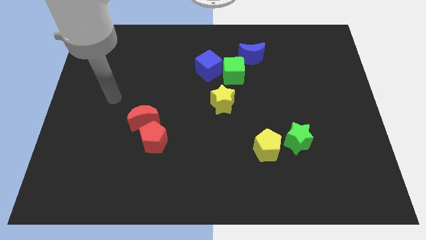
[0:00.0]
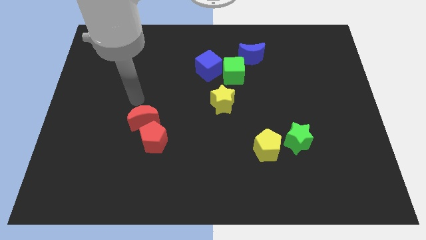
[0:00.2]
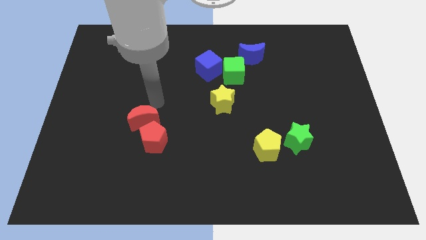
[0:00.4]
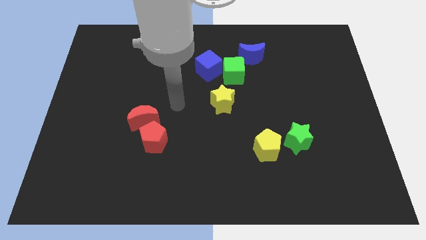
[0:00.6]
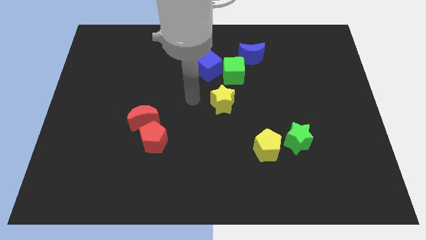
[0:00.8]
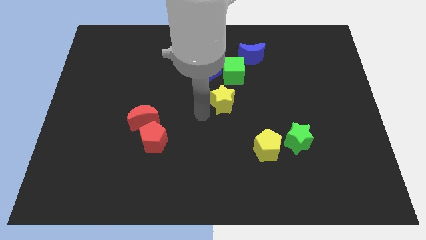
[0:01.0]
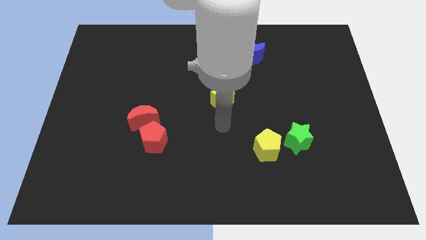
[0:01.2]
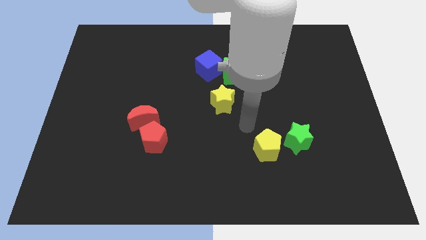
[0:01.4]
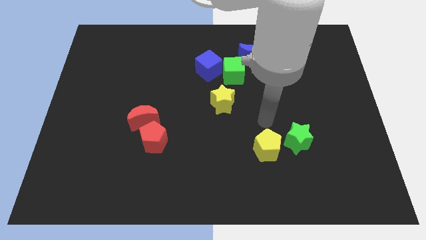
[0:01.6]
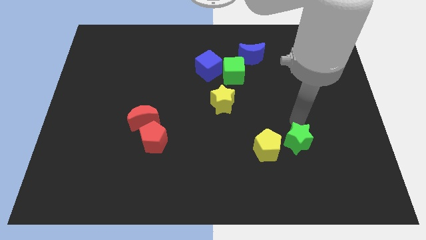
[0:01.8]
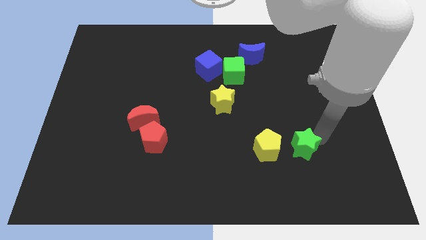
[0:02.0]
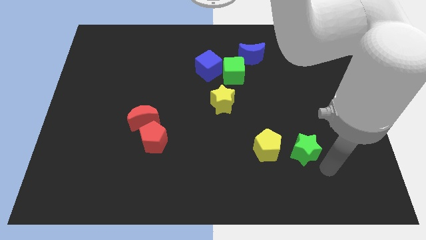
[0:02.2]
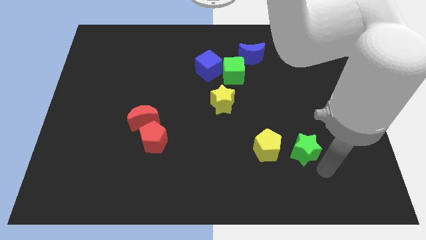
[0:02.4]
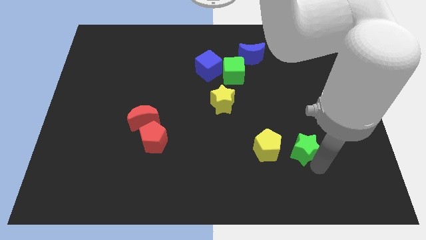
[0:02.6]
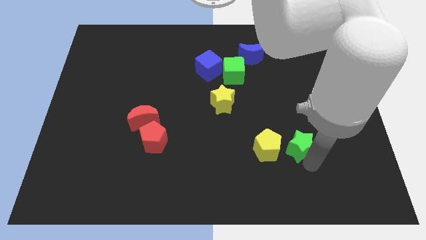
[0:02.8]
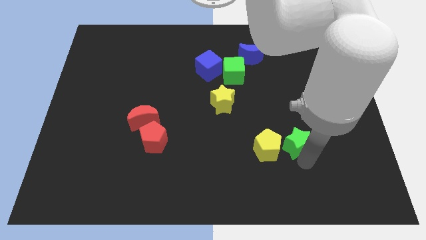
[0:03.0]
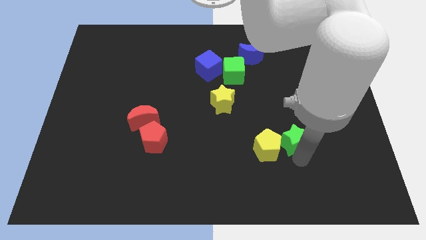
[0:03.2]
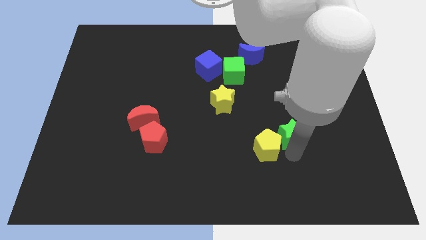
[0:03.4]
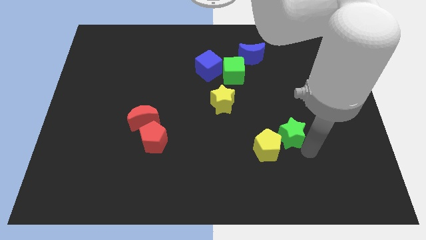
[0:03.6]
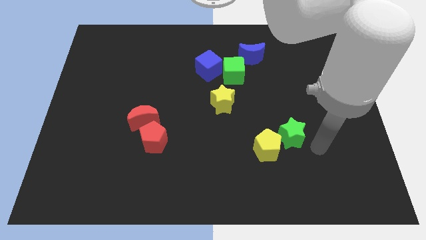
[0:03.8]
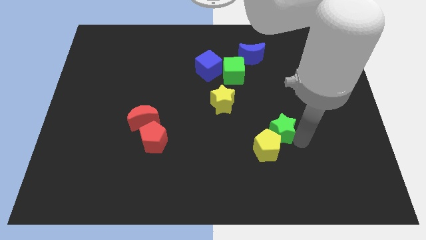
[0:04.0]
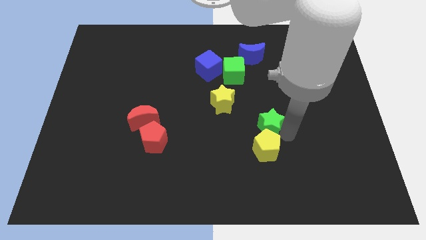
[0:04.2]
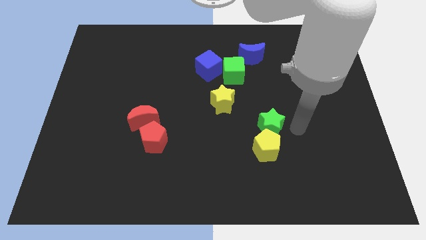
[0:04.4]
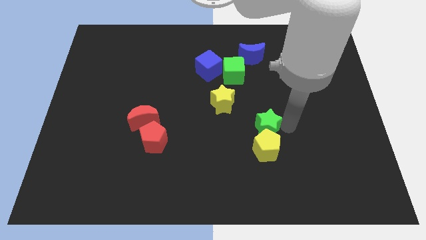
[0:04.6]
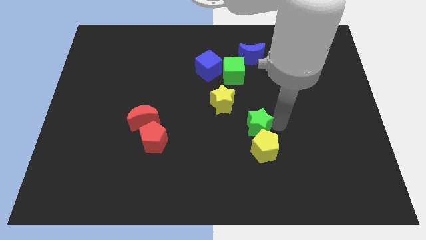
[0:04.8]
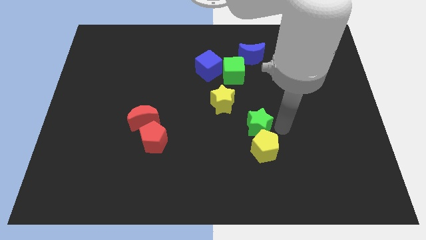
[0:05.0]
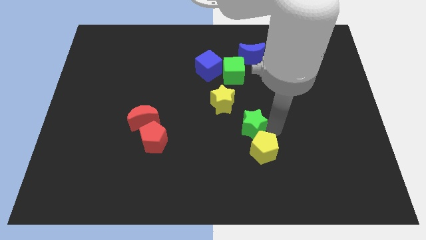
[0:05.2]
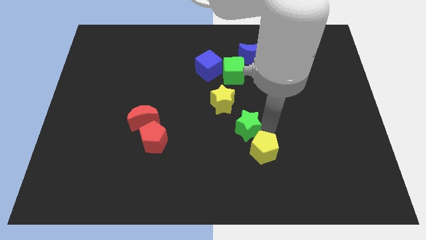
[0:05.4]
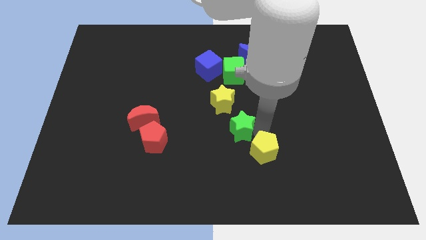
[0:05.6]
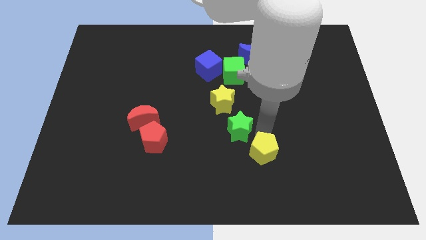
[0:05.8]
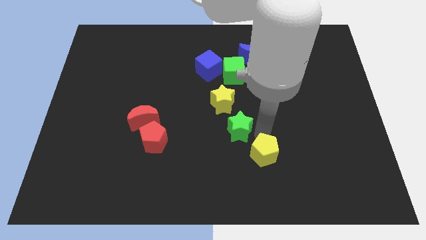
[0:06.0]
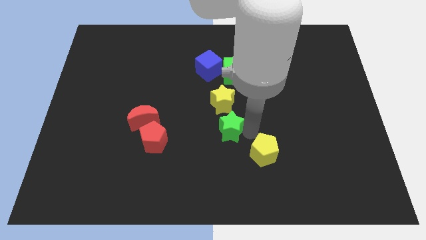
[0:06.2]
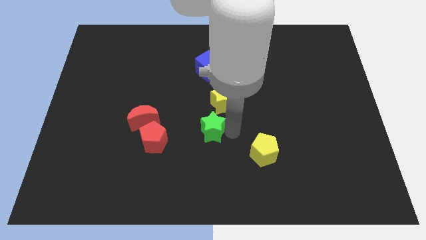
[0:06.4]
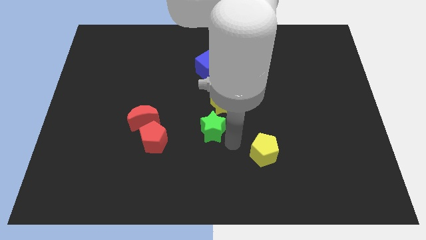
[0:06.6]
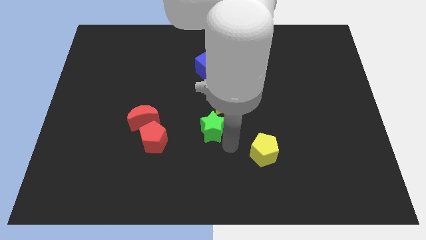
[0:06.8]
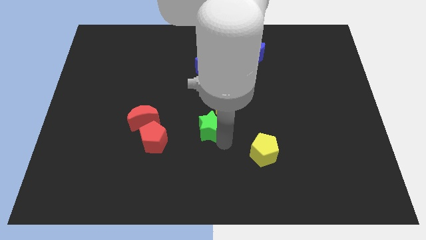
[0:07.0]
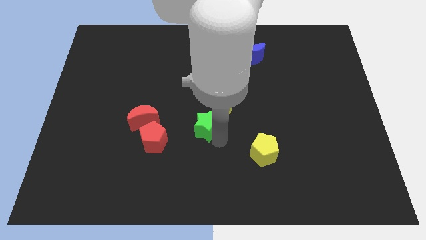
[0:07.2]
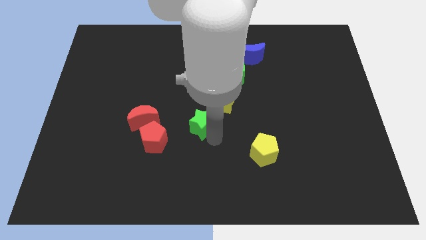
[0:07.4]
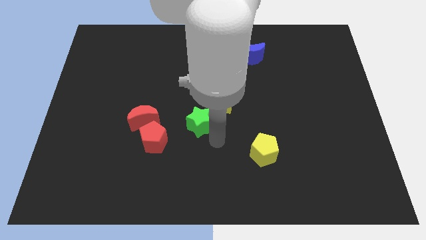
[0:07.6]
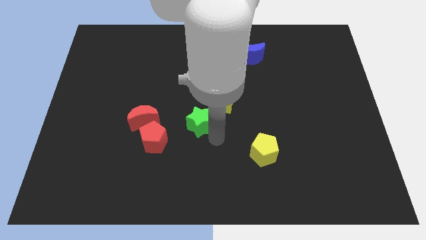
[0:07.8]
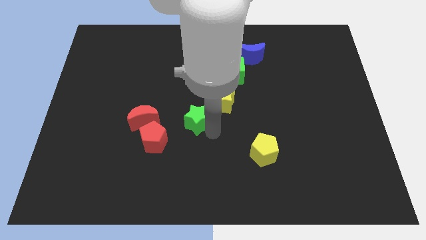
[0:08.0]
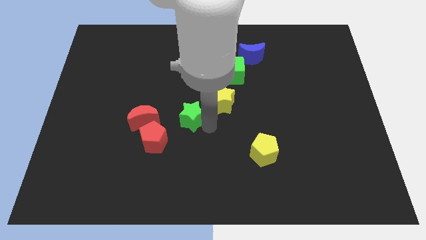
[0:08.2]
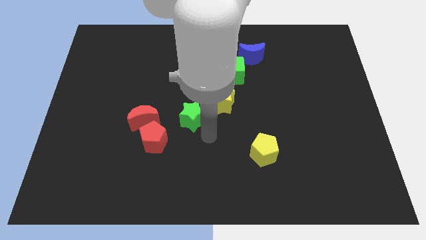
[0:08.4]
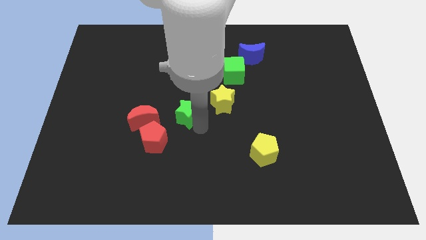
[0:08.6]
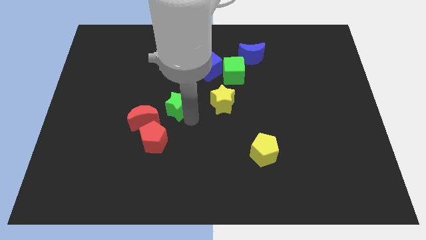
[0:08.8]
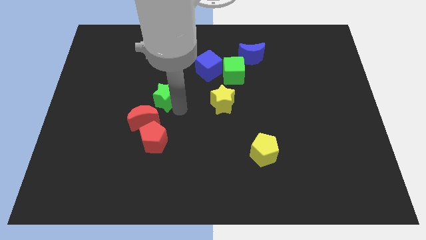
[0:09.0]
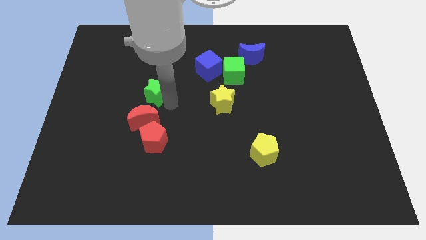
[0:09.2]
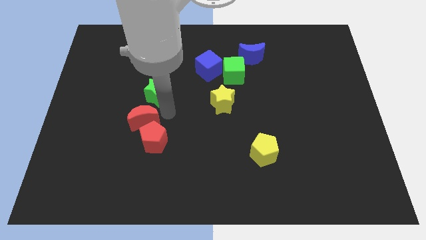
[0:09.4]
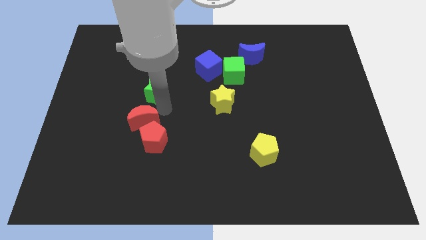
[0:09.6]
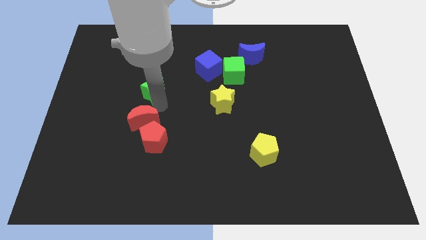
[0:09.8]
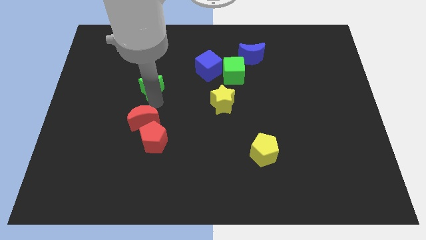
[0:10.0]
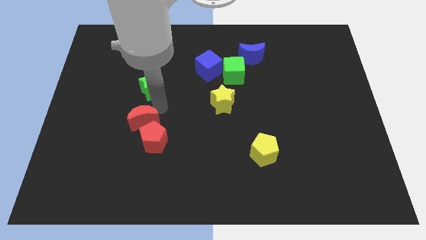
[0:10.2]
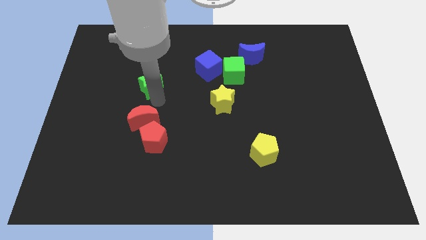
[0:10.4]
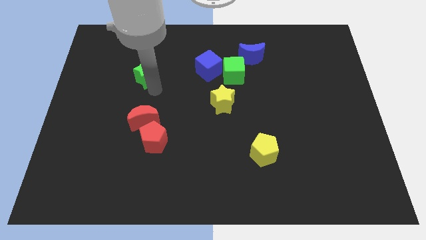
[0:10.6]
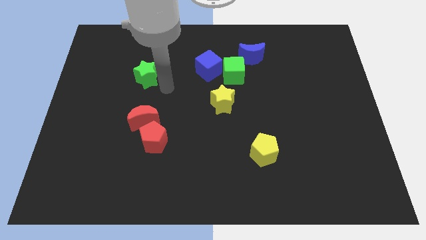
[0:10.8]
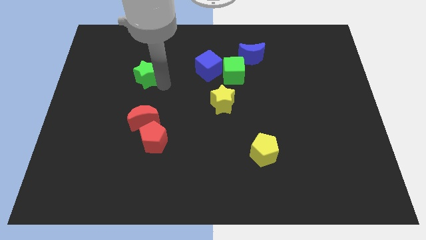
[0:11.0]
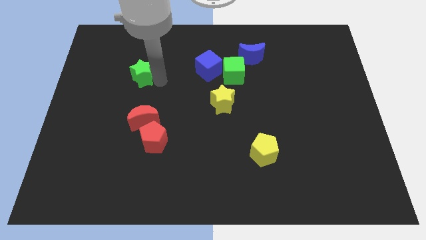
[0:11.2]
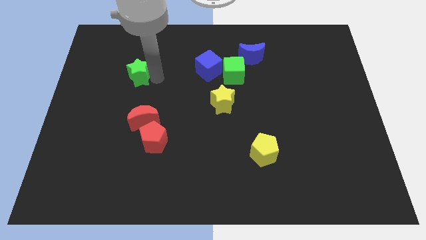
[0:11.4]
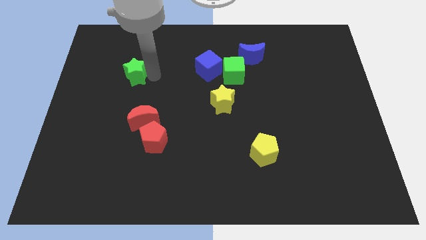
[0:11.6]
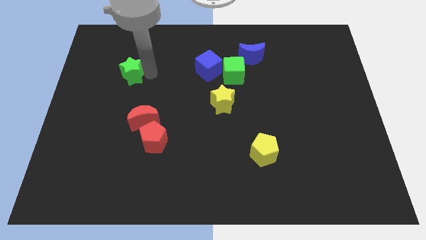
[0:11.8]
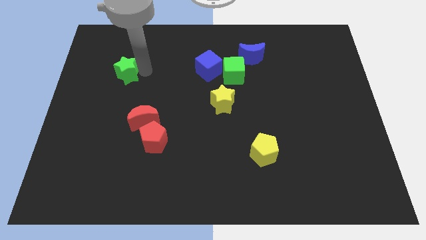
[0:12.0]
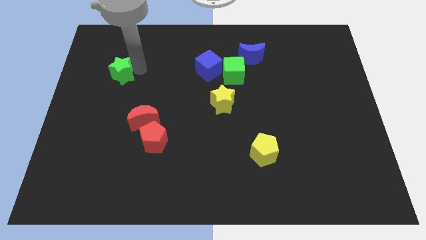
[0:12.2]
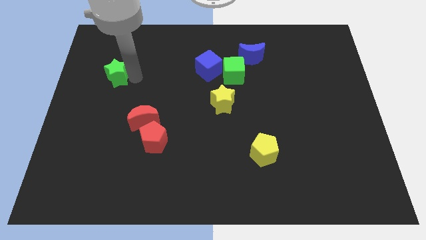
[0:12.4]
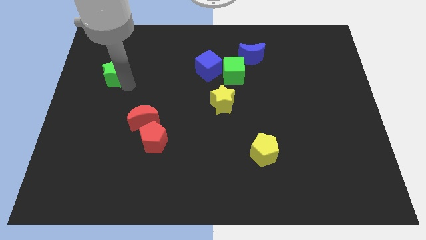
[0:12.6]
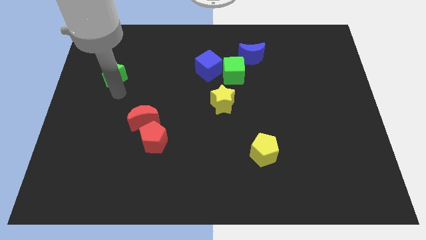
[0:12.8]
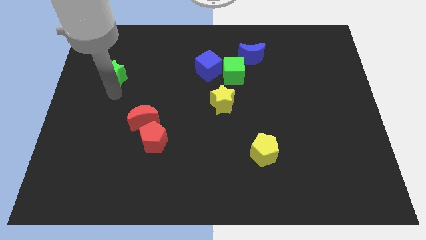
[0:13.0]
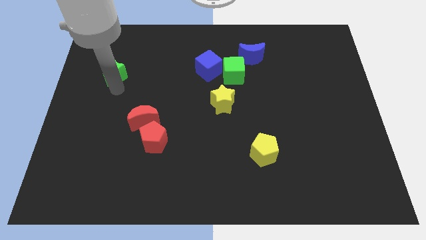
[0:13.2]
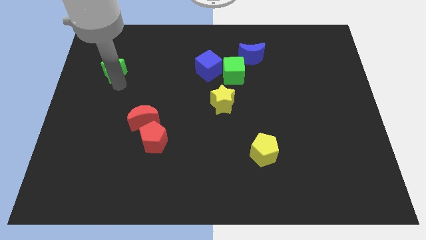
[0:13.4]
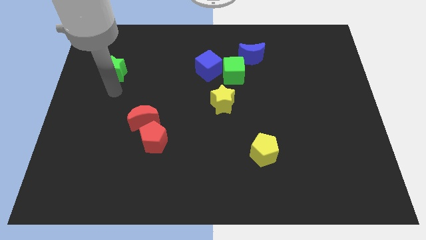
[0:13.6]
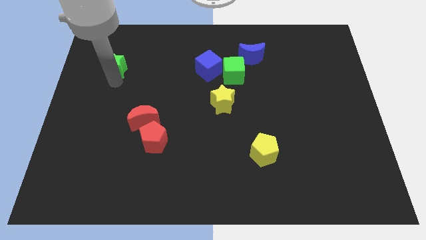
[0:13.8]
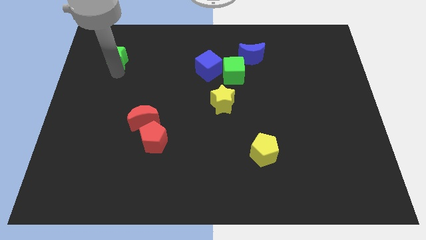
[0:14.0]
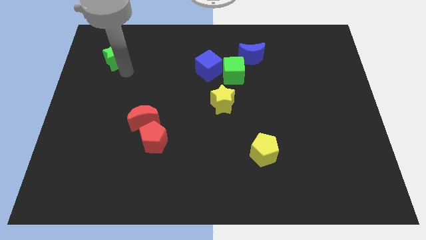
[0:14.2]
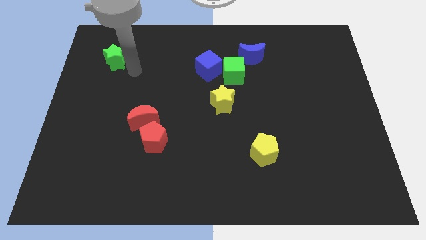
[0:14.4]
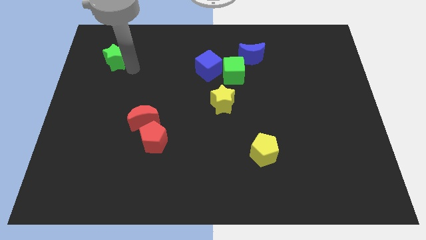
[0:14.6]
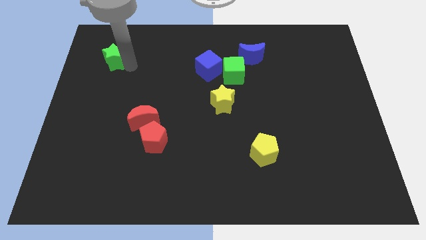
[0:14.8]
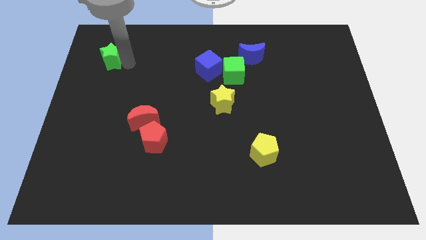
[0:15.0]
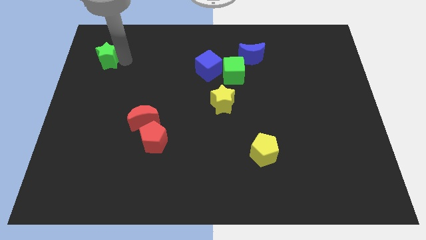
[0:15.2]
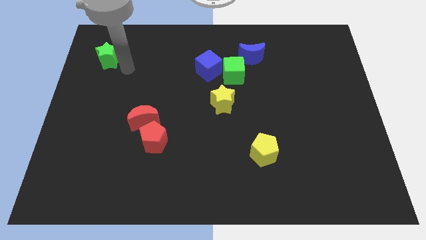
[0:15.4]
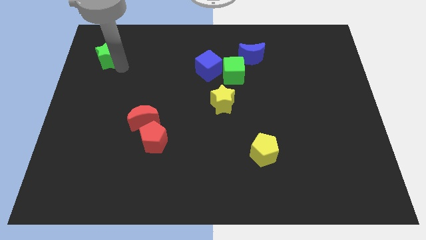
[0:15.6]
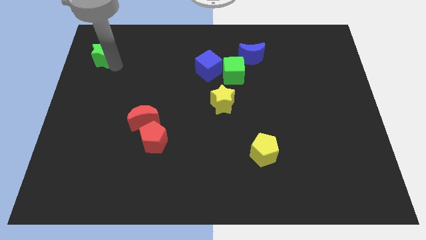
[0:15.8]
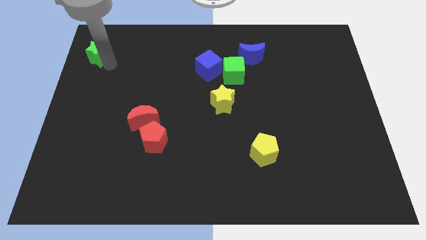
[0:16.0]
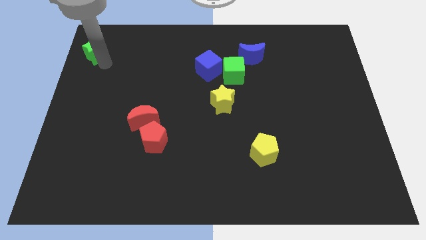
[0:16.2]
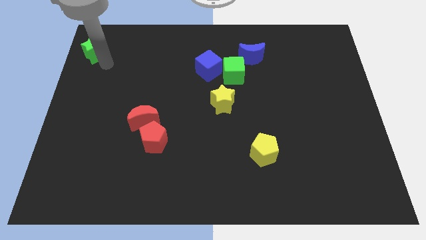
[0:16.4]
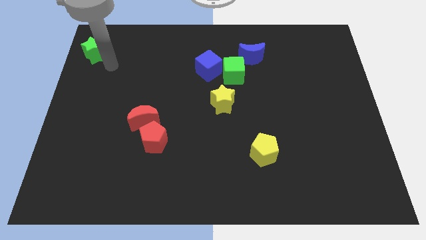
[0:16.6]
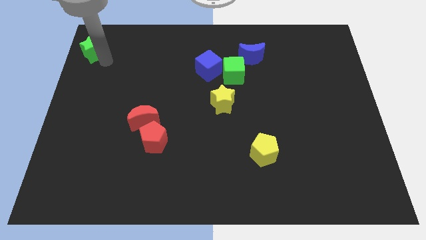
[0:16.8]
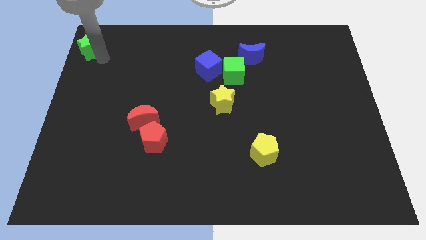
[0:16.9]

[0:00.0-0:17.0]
put the green star to the upper left corner
